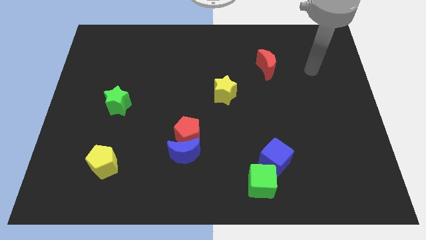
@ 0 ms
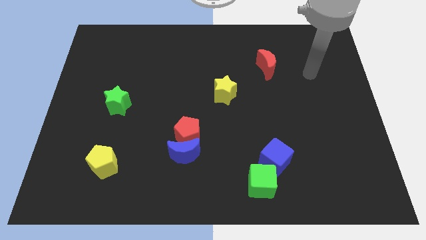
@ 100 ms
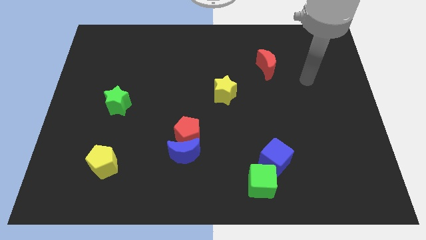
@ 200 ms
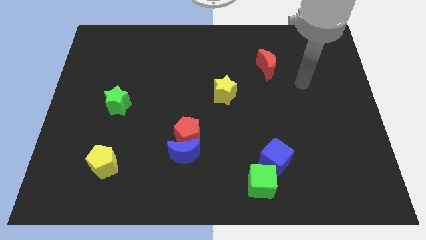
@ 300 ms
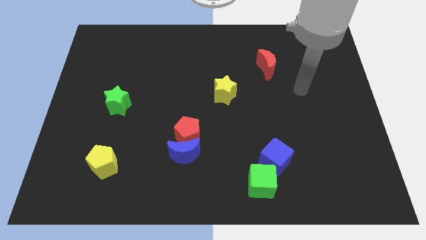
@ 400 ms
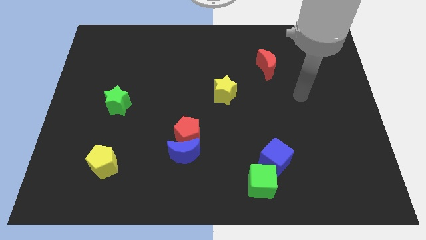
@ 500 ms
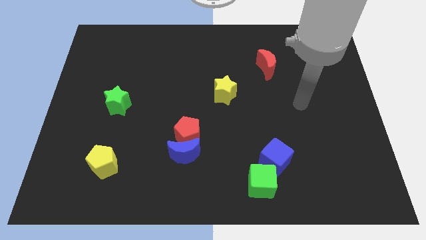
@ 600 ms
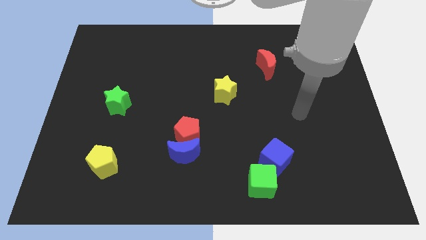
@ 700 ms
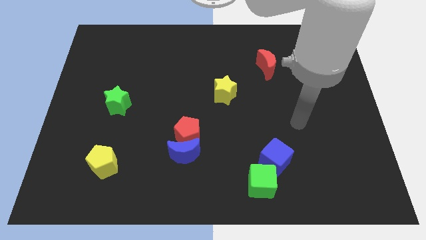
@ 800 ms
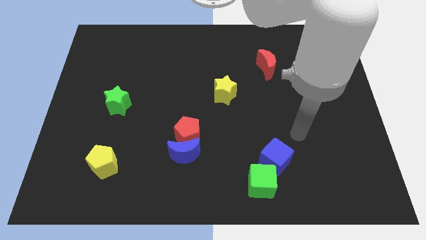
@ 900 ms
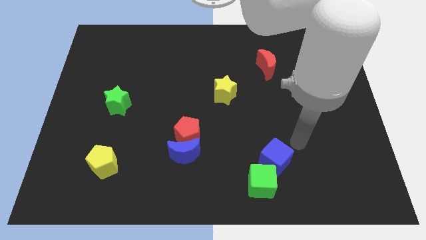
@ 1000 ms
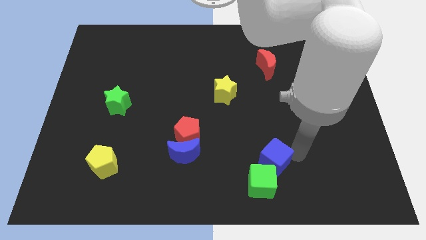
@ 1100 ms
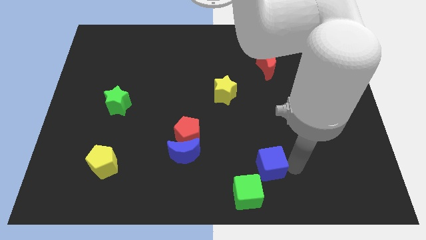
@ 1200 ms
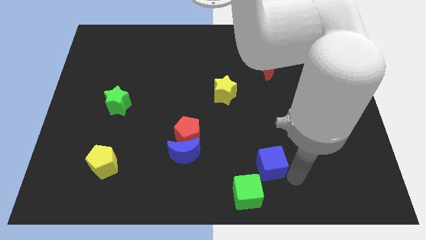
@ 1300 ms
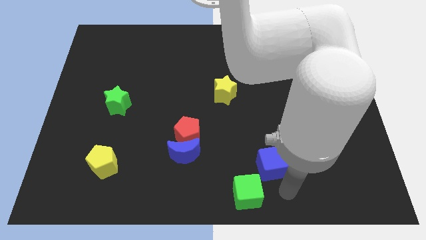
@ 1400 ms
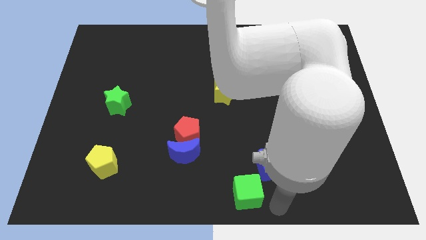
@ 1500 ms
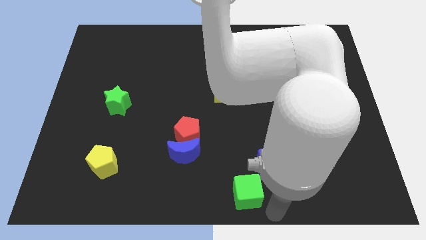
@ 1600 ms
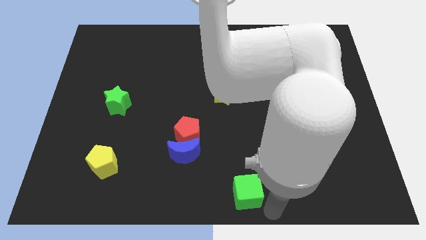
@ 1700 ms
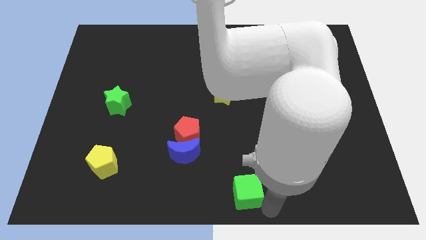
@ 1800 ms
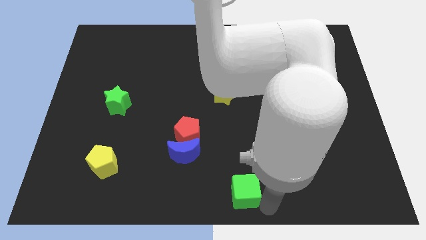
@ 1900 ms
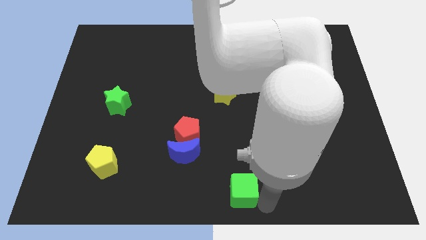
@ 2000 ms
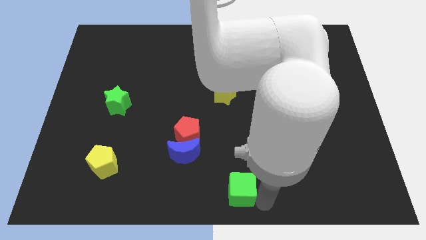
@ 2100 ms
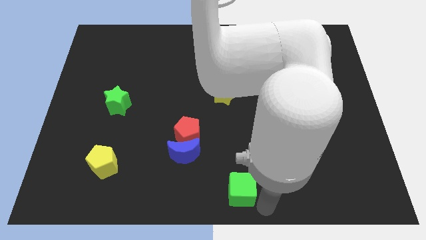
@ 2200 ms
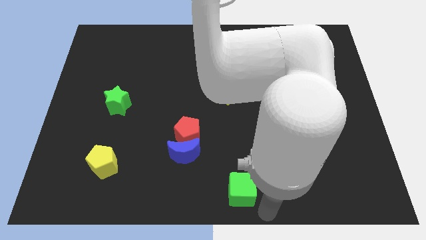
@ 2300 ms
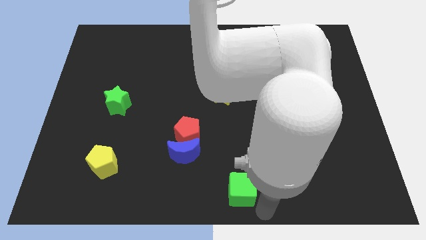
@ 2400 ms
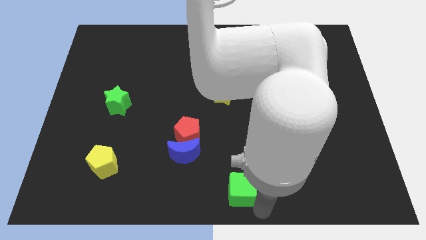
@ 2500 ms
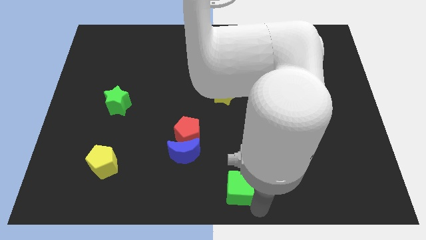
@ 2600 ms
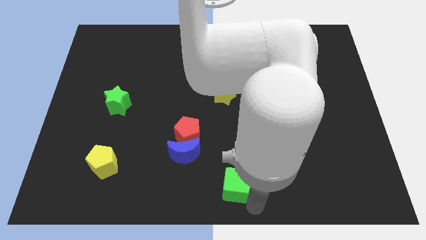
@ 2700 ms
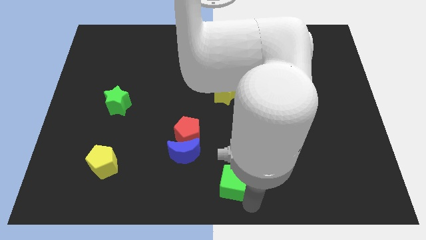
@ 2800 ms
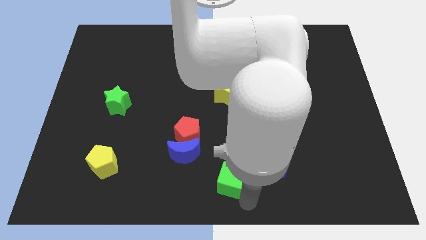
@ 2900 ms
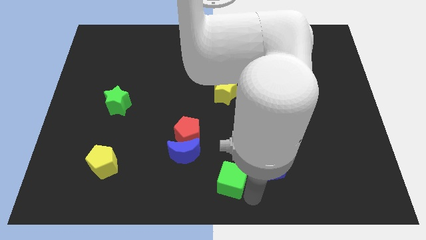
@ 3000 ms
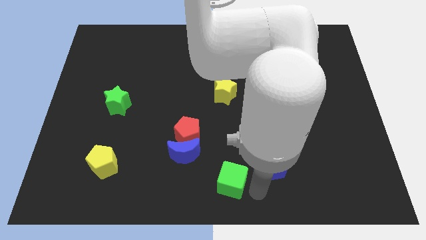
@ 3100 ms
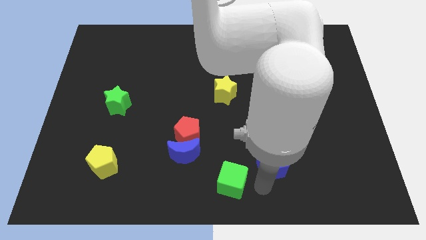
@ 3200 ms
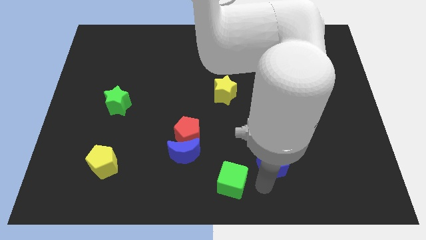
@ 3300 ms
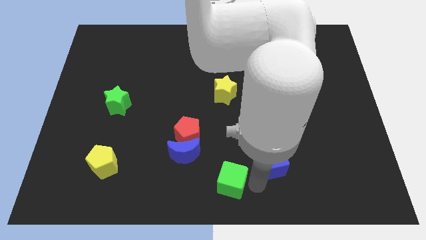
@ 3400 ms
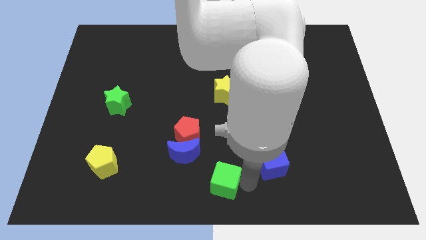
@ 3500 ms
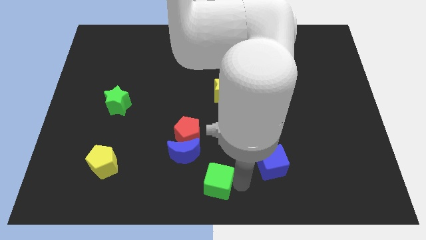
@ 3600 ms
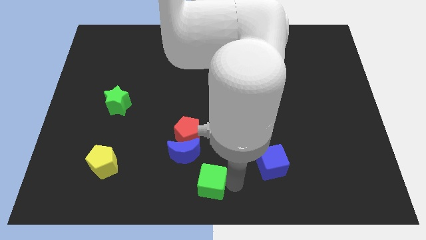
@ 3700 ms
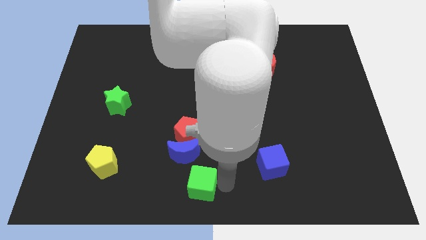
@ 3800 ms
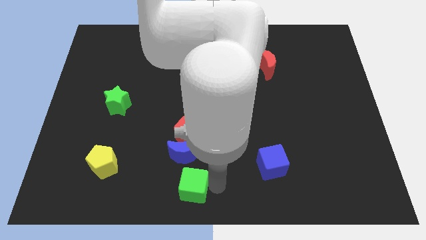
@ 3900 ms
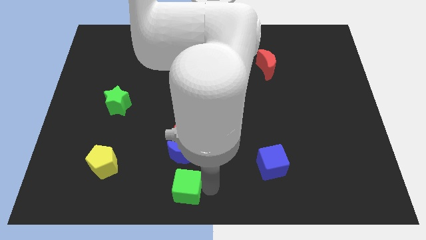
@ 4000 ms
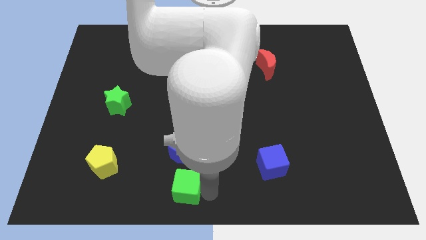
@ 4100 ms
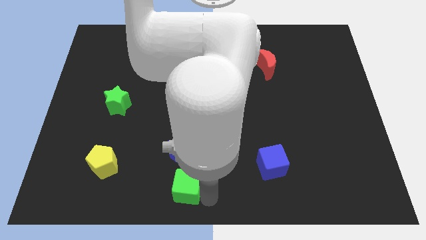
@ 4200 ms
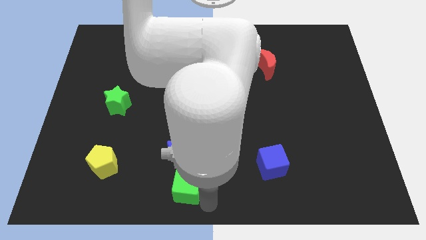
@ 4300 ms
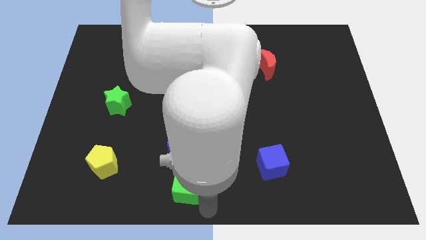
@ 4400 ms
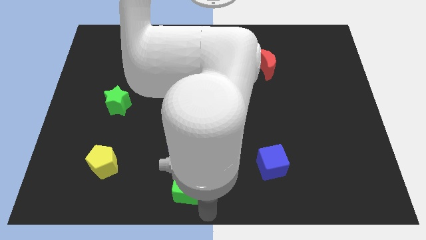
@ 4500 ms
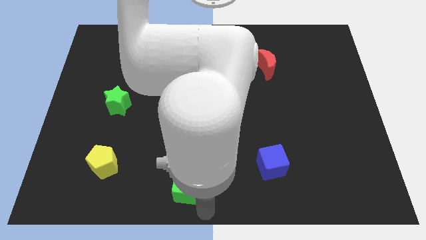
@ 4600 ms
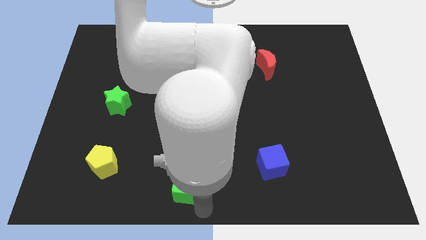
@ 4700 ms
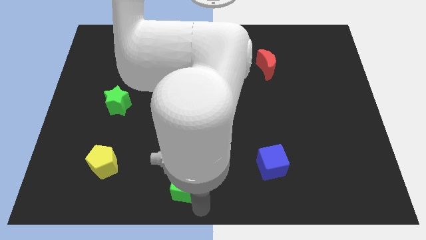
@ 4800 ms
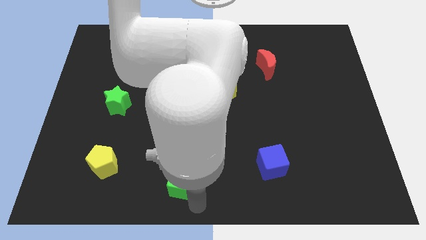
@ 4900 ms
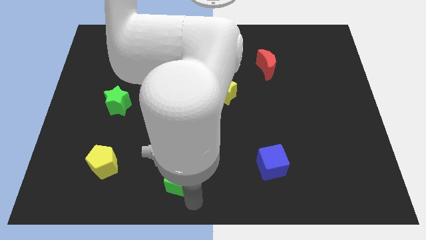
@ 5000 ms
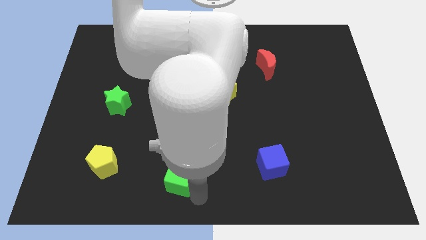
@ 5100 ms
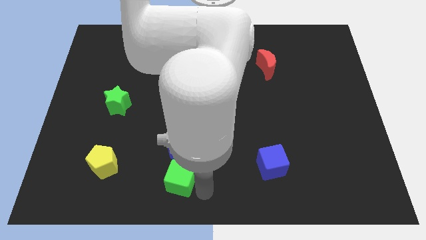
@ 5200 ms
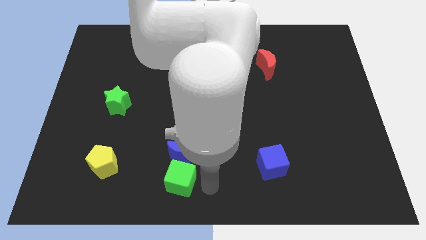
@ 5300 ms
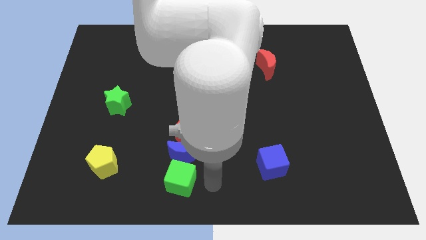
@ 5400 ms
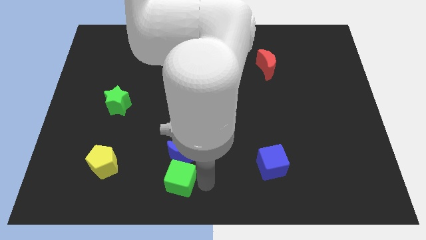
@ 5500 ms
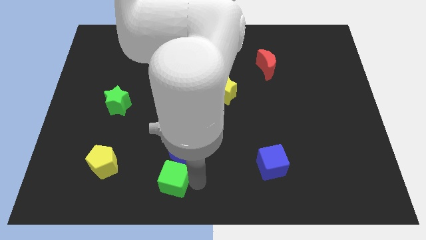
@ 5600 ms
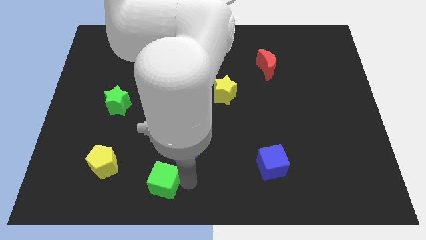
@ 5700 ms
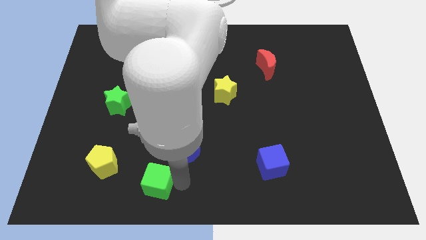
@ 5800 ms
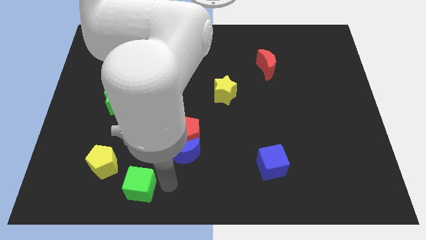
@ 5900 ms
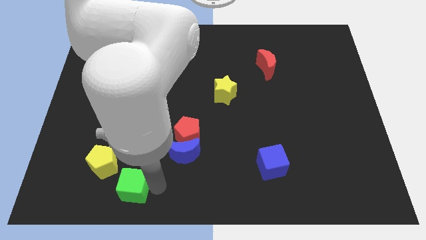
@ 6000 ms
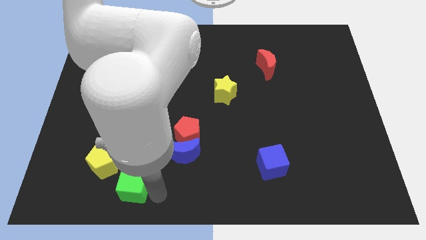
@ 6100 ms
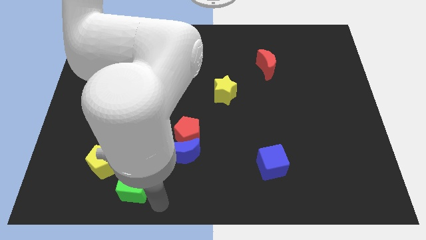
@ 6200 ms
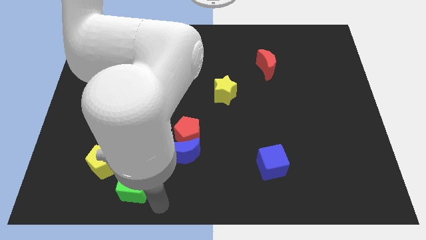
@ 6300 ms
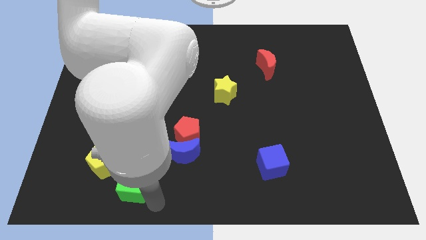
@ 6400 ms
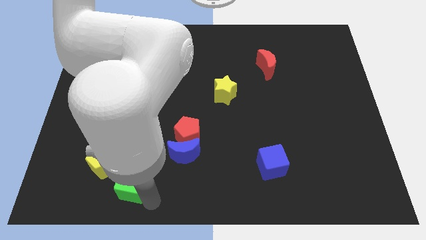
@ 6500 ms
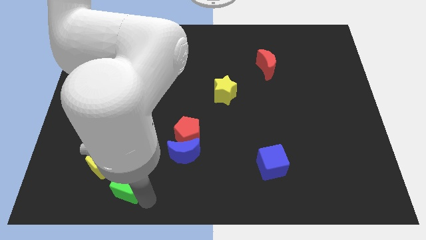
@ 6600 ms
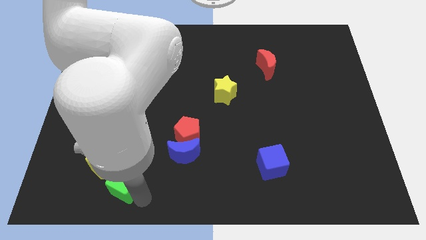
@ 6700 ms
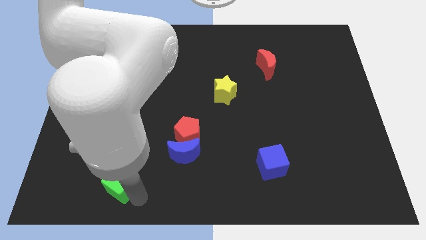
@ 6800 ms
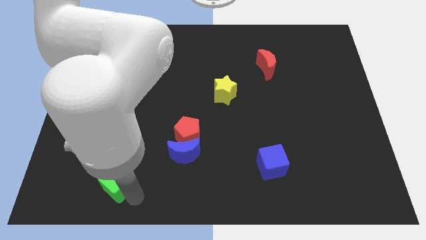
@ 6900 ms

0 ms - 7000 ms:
put the green cube to the yellow pentagon

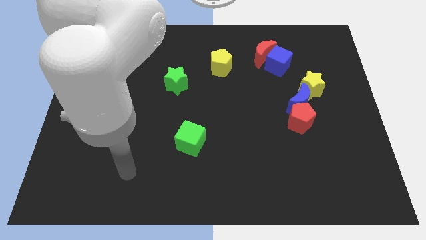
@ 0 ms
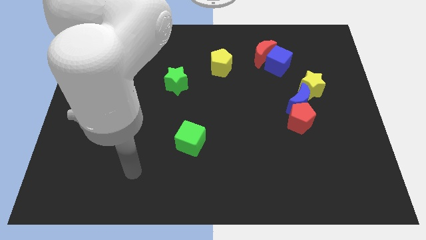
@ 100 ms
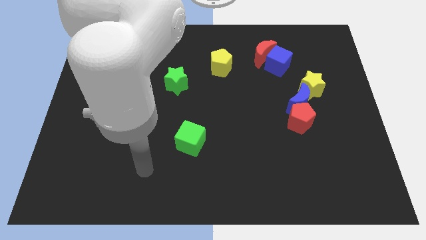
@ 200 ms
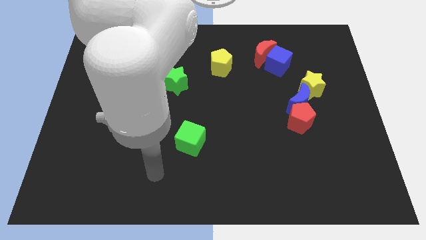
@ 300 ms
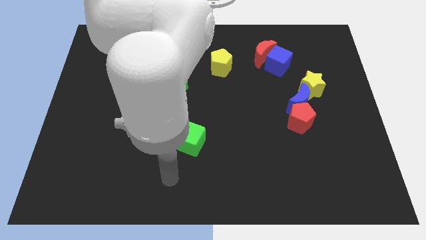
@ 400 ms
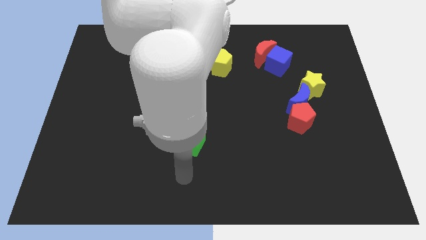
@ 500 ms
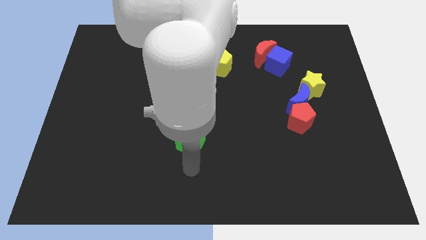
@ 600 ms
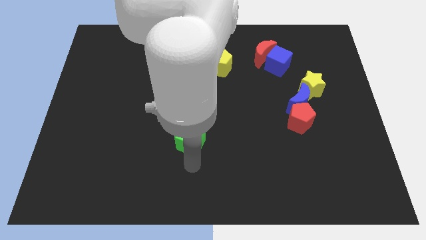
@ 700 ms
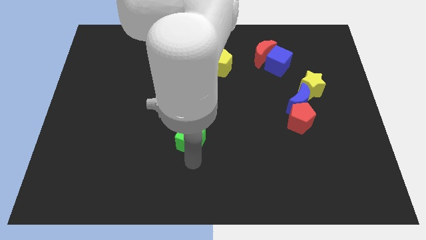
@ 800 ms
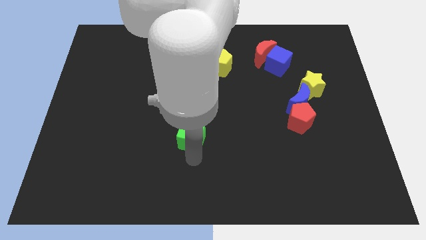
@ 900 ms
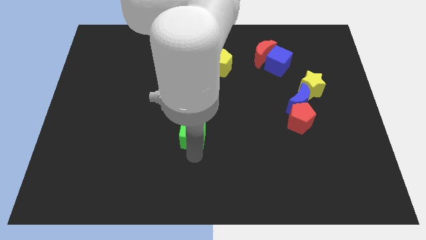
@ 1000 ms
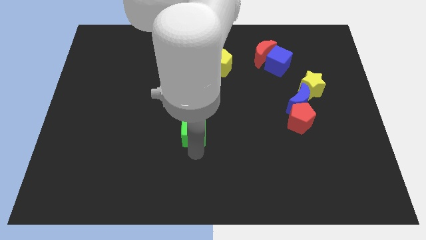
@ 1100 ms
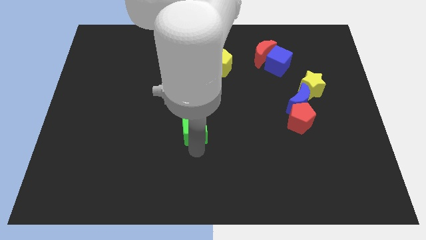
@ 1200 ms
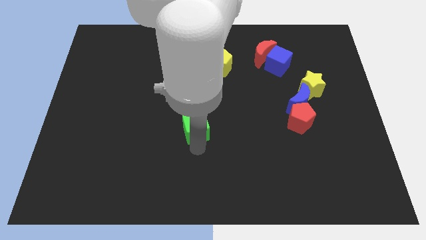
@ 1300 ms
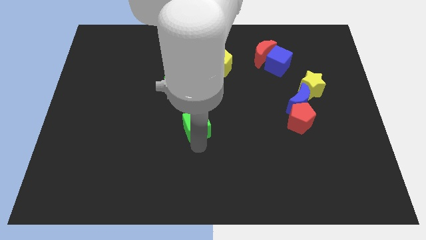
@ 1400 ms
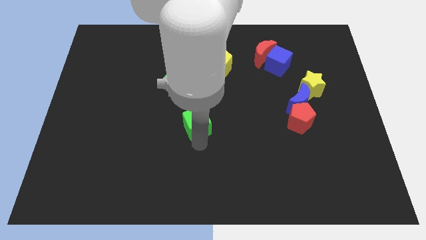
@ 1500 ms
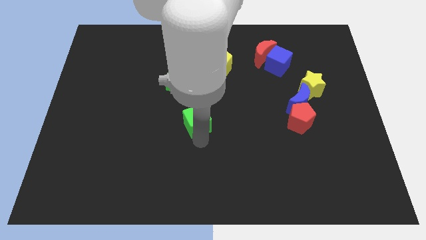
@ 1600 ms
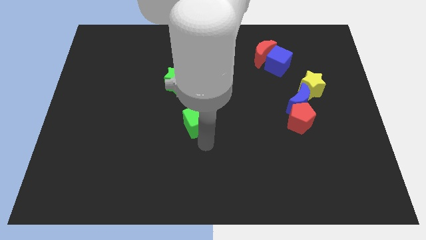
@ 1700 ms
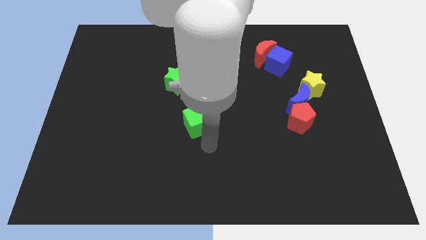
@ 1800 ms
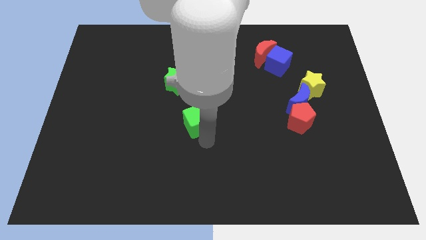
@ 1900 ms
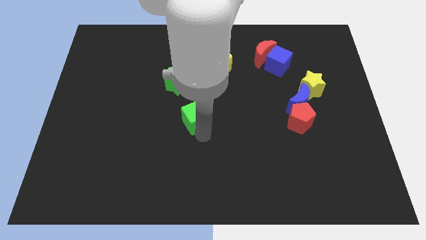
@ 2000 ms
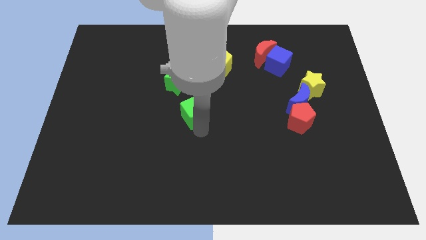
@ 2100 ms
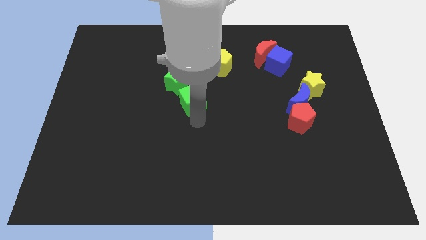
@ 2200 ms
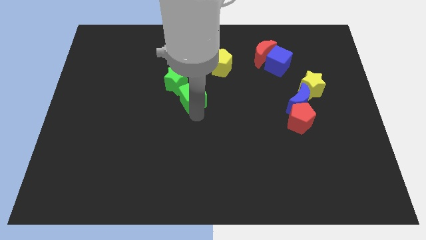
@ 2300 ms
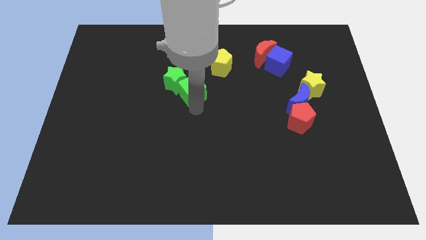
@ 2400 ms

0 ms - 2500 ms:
push the green cube next to the green star
